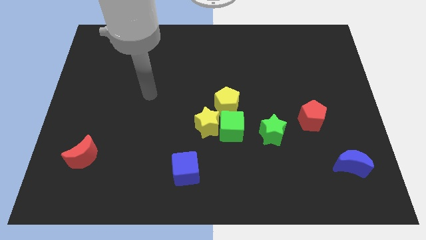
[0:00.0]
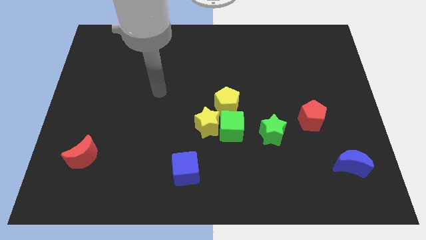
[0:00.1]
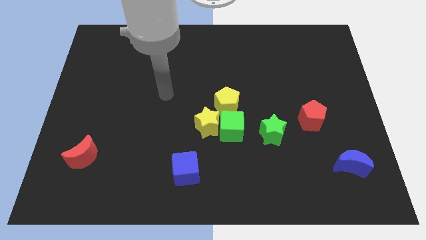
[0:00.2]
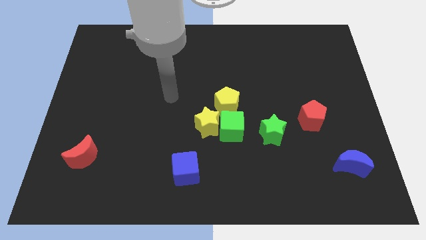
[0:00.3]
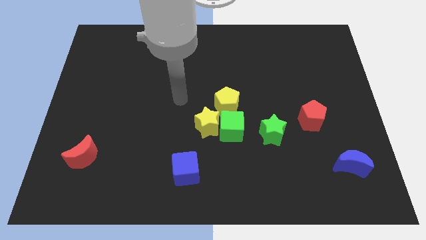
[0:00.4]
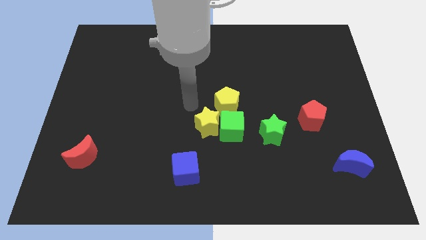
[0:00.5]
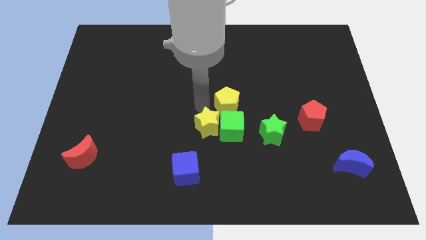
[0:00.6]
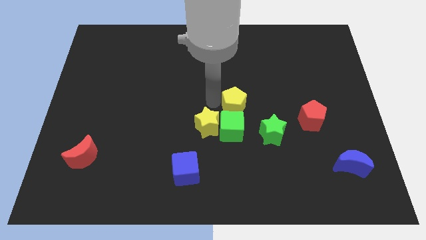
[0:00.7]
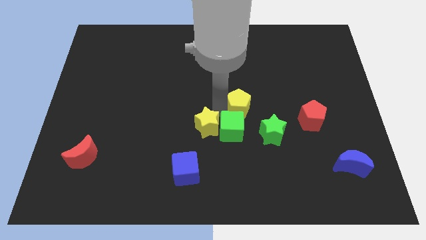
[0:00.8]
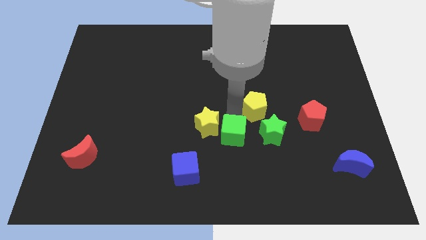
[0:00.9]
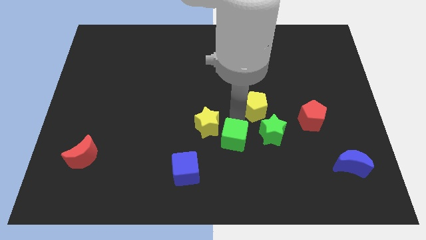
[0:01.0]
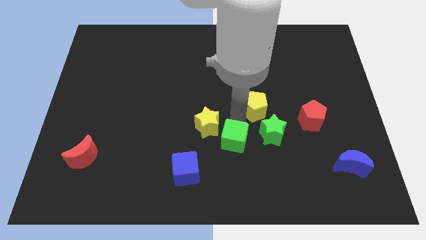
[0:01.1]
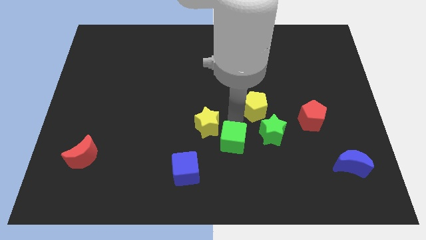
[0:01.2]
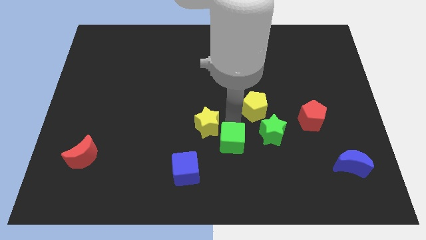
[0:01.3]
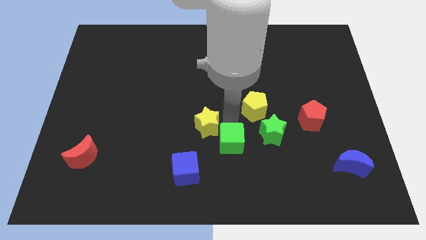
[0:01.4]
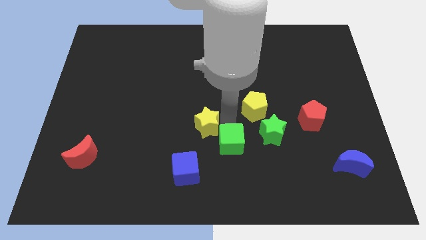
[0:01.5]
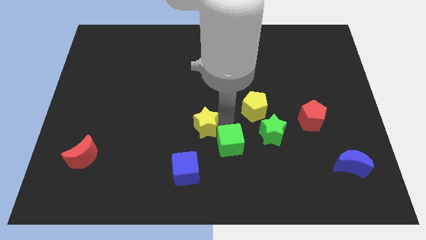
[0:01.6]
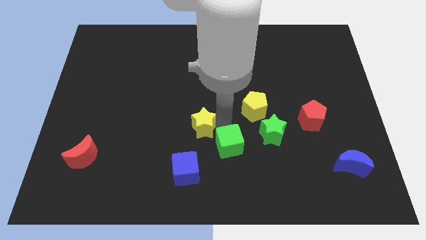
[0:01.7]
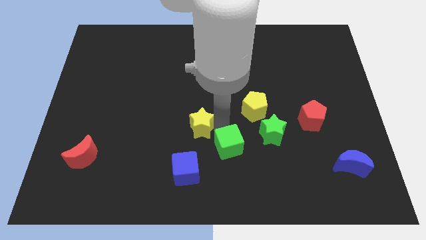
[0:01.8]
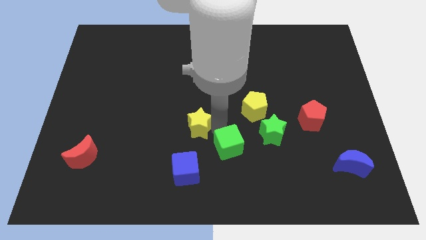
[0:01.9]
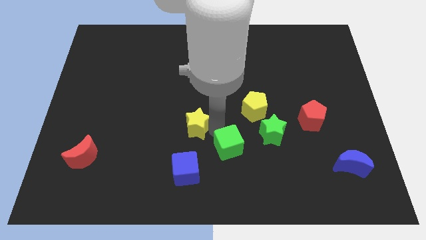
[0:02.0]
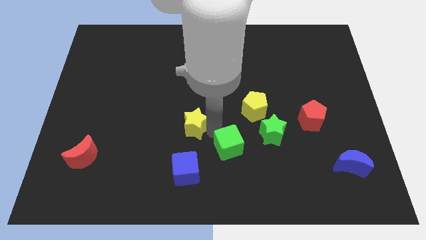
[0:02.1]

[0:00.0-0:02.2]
separate the yellow star from the green cube and yellow pentagon

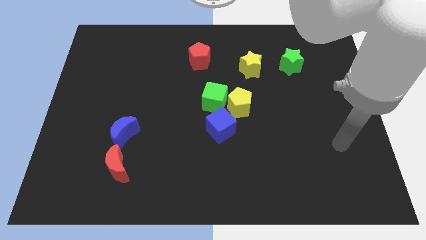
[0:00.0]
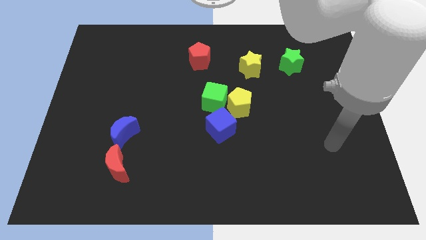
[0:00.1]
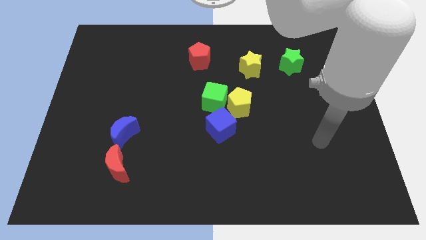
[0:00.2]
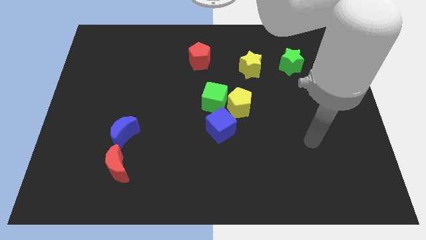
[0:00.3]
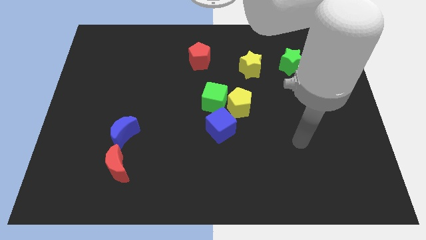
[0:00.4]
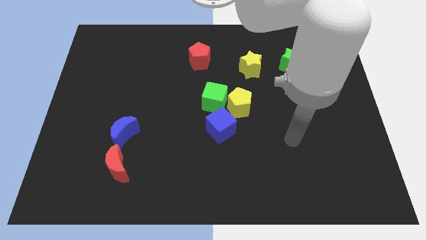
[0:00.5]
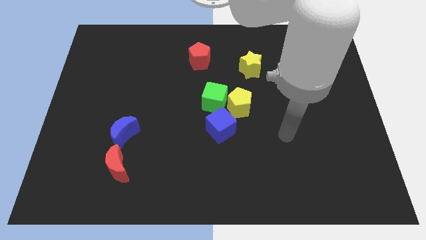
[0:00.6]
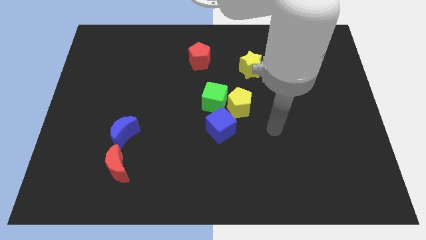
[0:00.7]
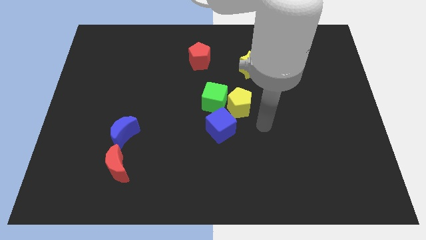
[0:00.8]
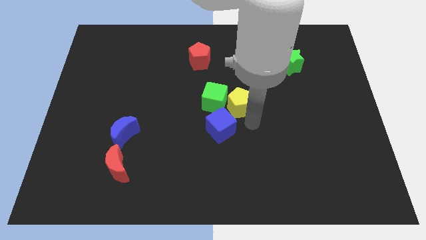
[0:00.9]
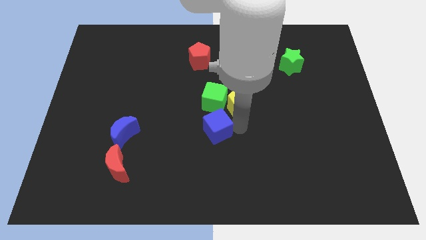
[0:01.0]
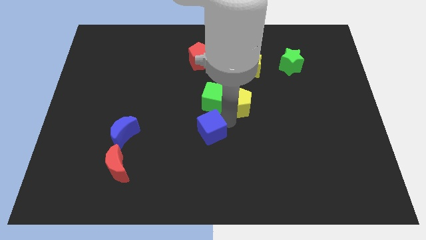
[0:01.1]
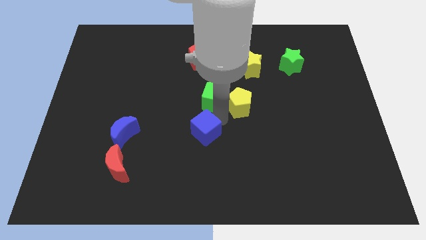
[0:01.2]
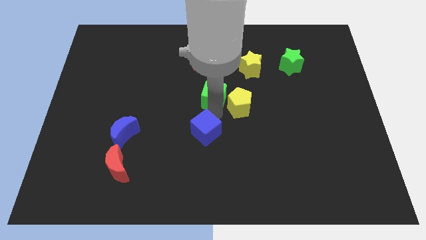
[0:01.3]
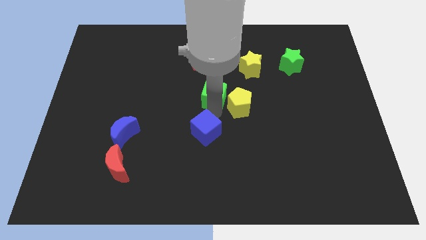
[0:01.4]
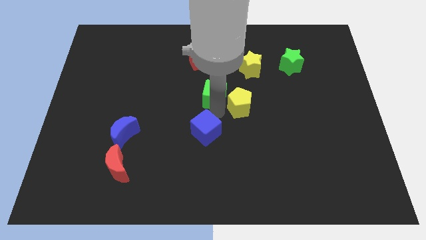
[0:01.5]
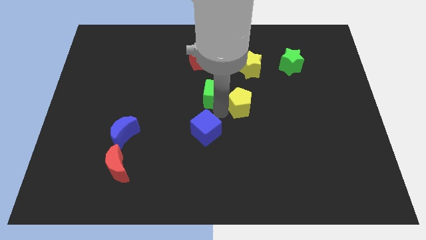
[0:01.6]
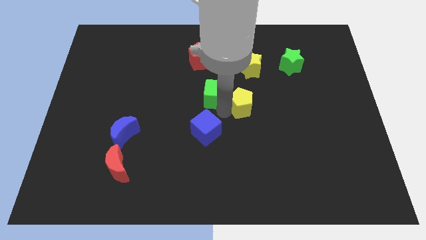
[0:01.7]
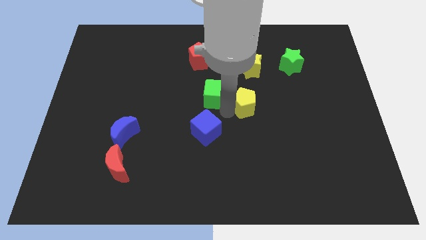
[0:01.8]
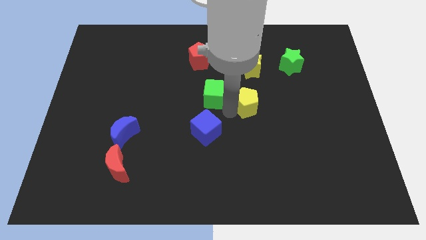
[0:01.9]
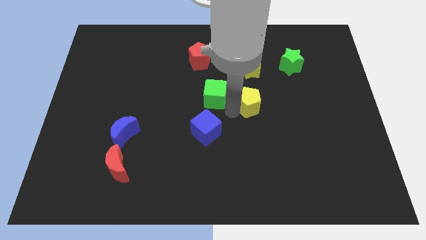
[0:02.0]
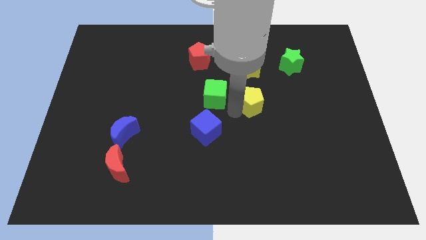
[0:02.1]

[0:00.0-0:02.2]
move the yellow pentagon away from the green cube and blue cube

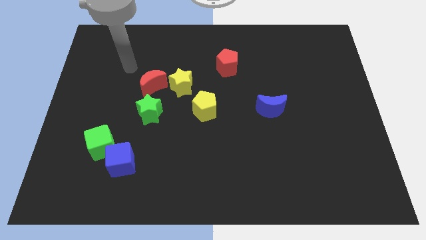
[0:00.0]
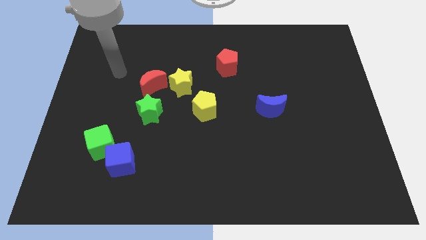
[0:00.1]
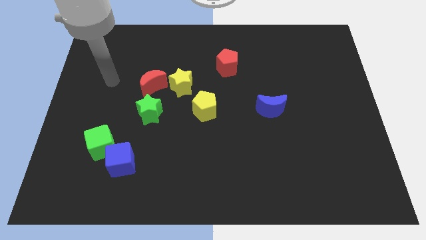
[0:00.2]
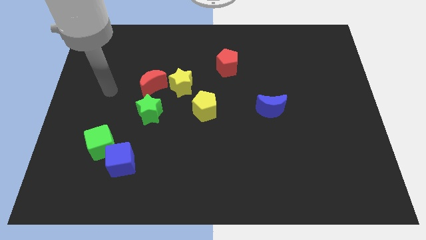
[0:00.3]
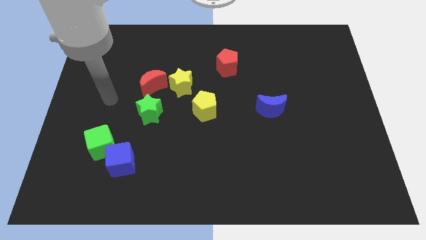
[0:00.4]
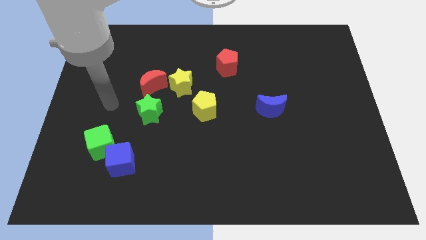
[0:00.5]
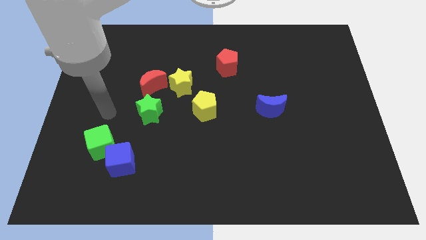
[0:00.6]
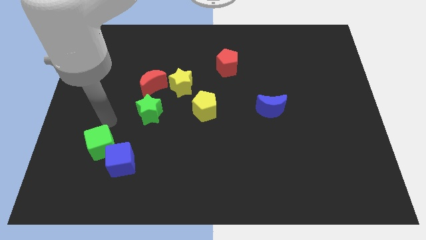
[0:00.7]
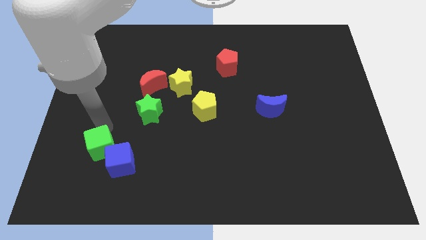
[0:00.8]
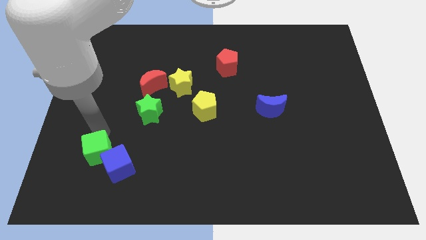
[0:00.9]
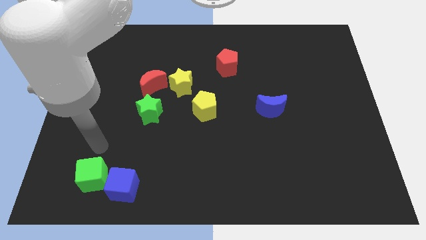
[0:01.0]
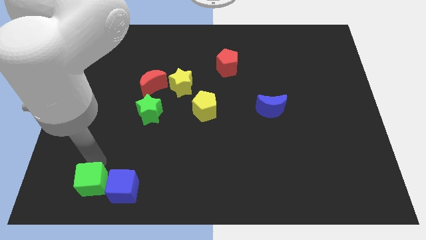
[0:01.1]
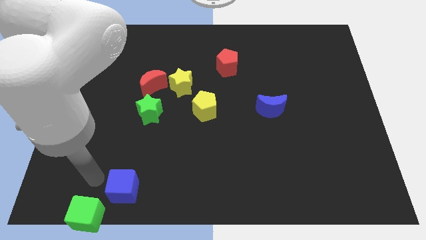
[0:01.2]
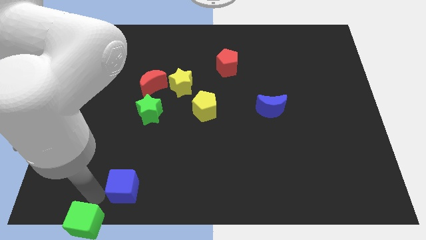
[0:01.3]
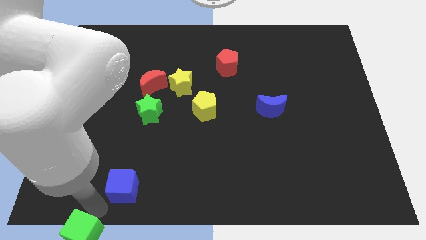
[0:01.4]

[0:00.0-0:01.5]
pull the blue cube apart from the green cube

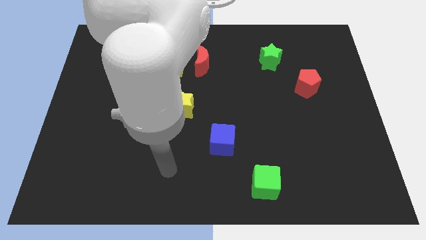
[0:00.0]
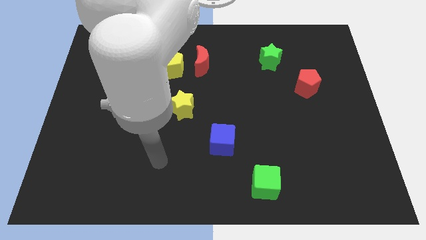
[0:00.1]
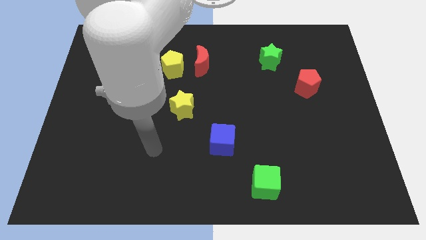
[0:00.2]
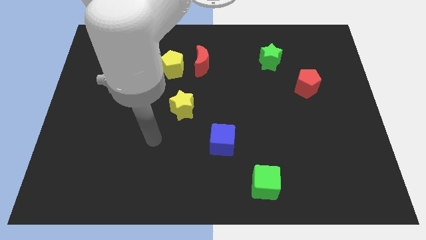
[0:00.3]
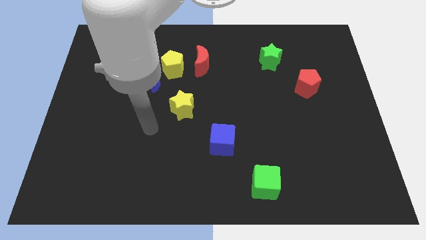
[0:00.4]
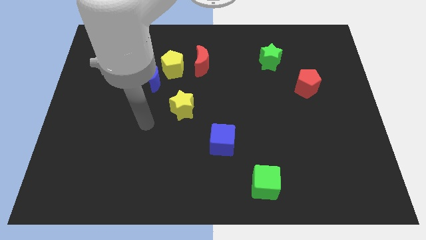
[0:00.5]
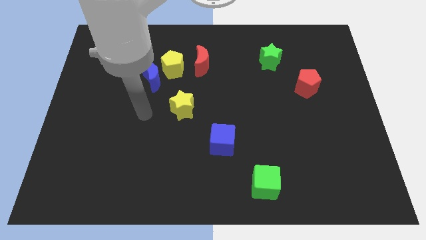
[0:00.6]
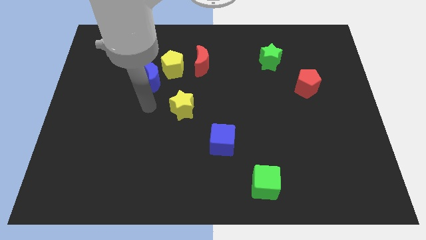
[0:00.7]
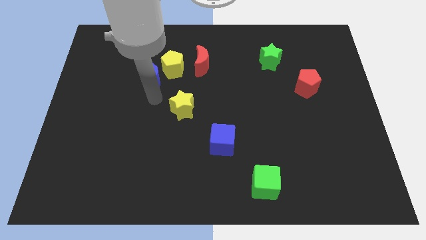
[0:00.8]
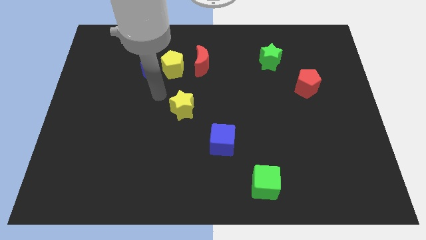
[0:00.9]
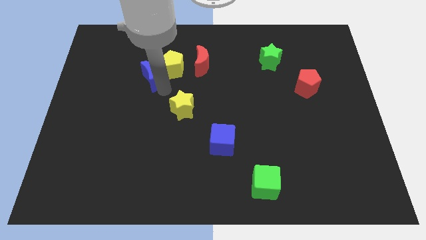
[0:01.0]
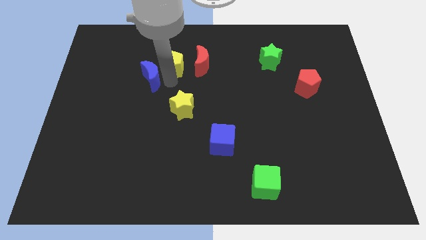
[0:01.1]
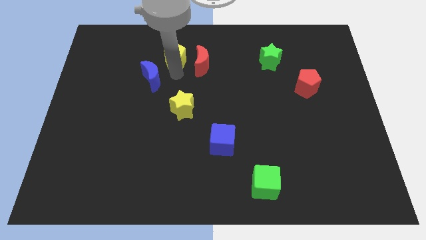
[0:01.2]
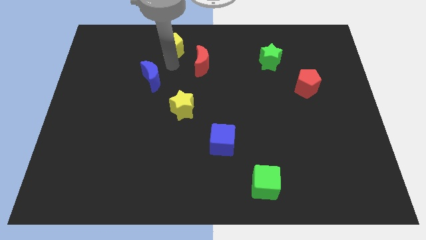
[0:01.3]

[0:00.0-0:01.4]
pull the blue moon apart from the yellow pentagon

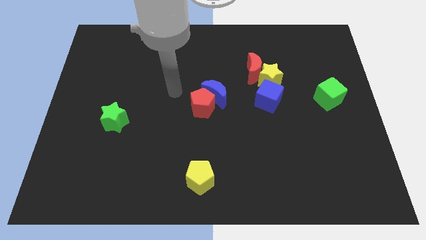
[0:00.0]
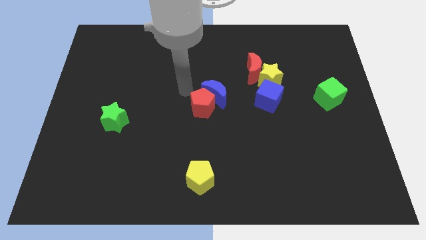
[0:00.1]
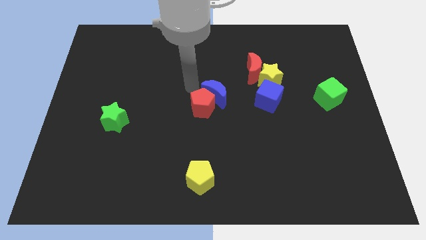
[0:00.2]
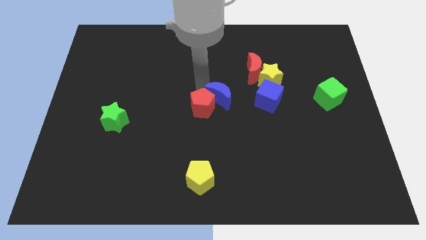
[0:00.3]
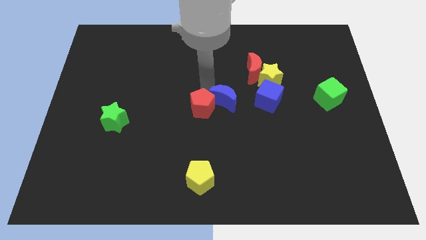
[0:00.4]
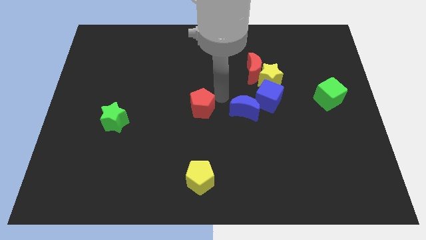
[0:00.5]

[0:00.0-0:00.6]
separate the red pentagon from the blue moon

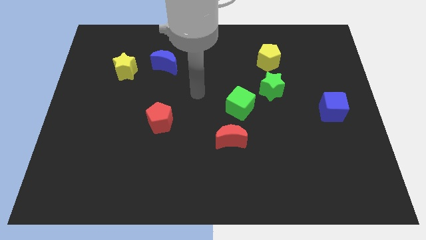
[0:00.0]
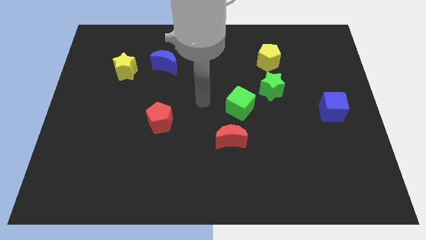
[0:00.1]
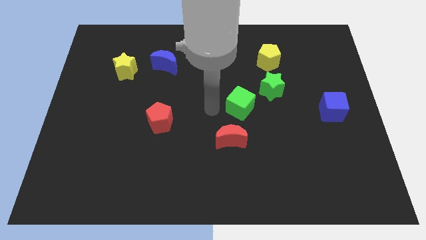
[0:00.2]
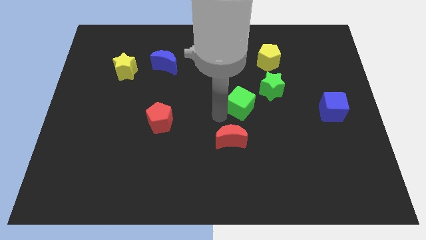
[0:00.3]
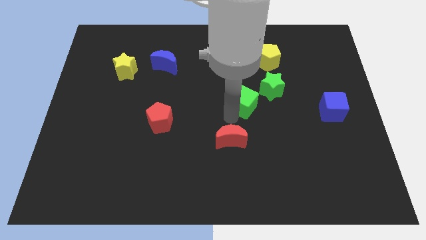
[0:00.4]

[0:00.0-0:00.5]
separate the red moon from the green cube

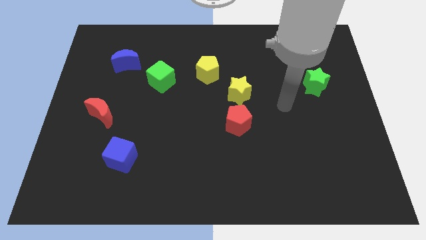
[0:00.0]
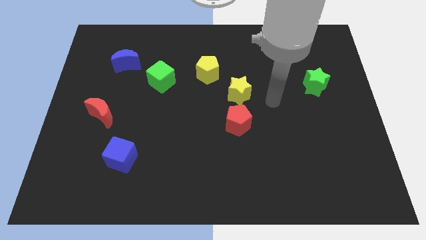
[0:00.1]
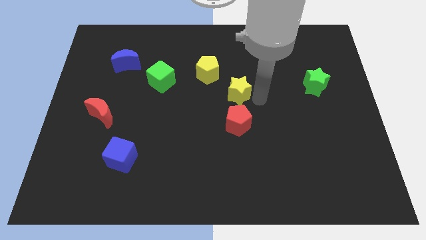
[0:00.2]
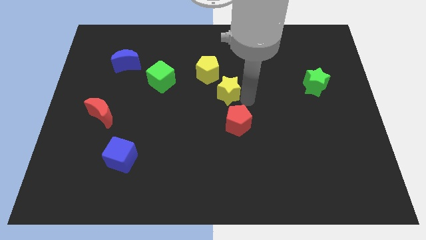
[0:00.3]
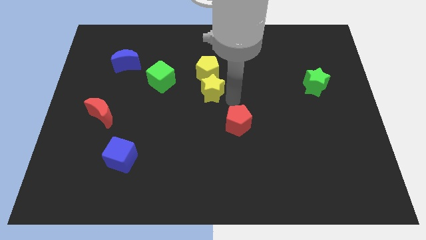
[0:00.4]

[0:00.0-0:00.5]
move the red pentagon away from the yellow star

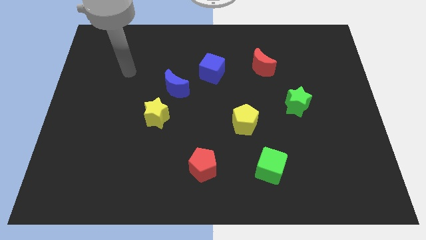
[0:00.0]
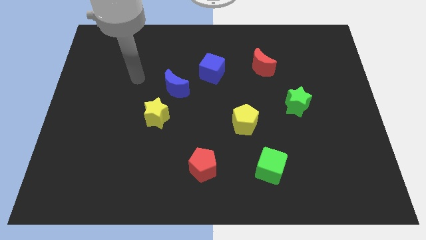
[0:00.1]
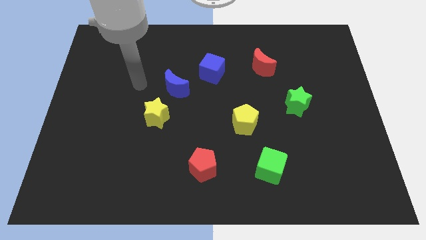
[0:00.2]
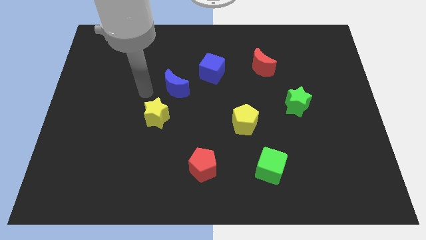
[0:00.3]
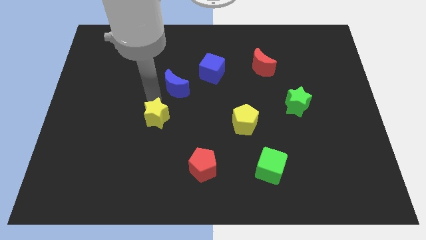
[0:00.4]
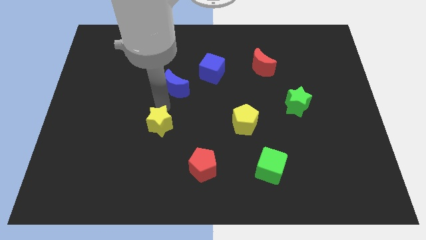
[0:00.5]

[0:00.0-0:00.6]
separate the blue moon from the yellow star
